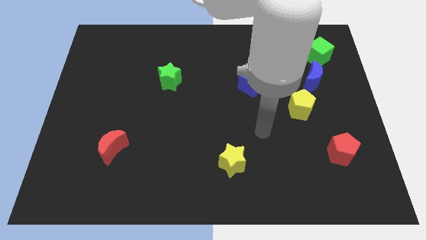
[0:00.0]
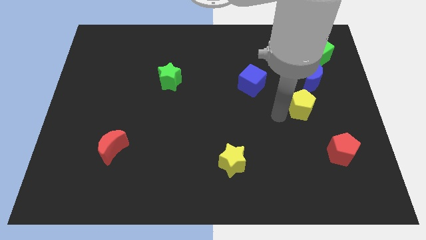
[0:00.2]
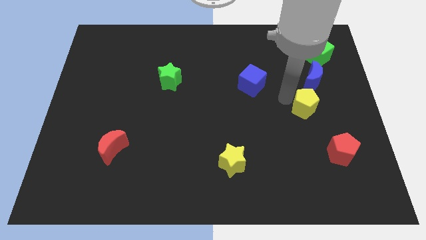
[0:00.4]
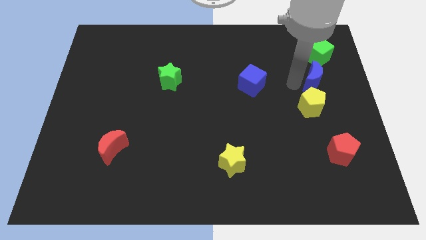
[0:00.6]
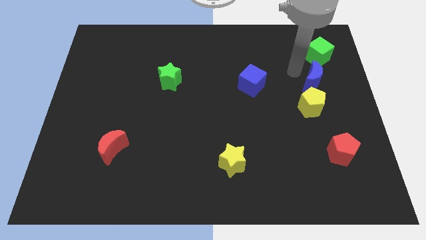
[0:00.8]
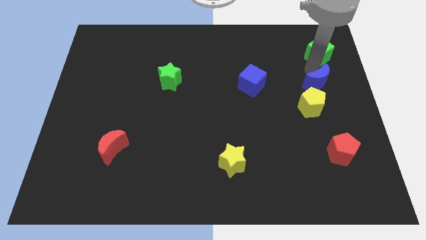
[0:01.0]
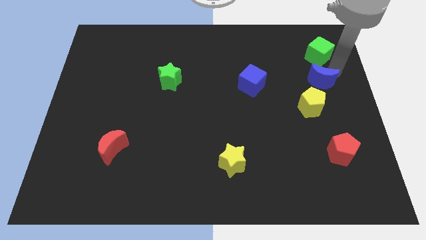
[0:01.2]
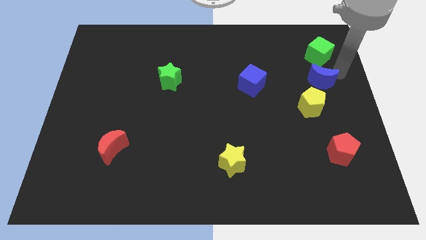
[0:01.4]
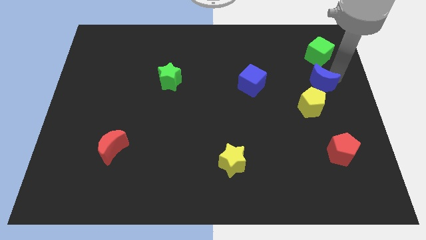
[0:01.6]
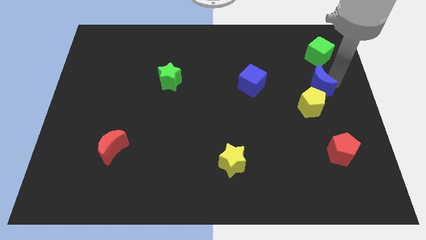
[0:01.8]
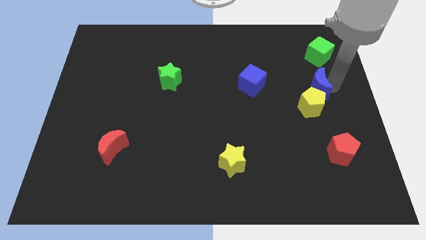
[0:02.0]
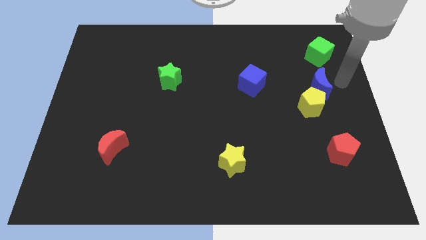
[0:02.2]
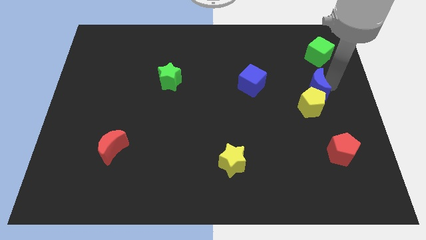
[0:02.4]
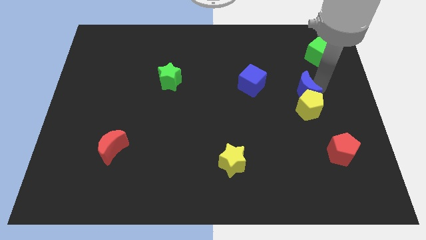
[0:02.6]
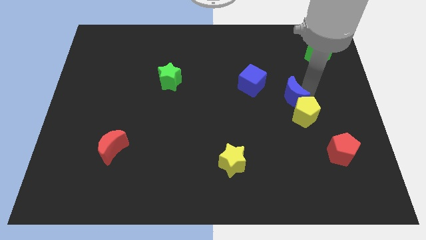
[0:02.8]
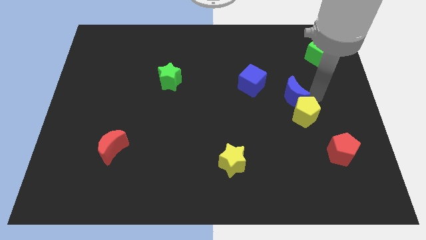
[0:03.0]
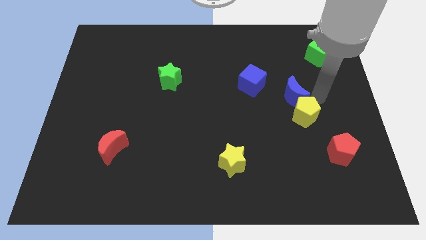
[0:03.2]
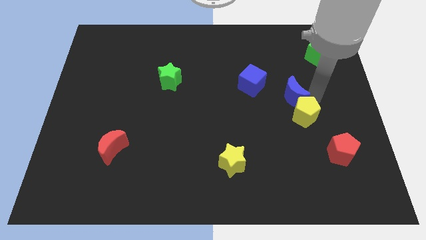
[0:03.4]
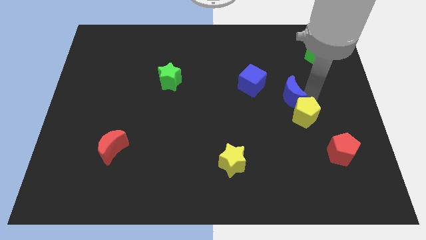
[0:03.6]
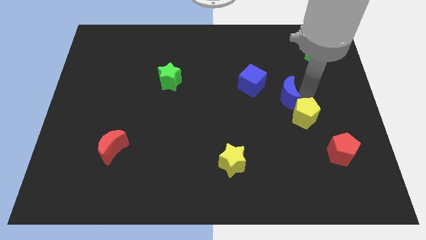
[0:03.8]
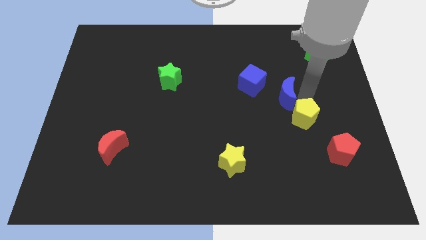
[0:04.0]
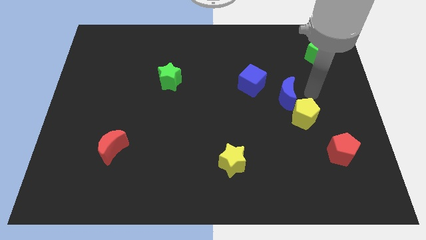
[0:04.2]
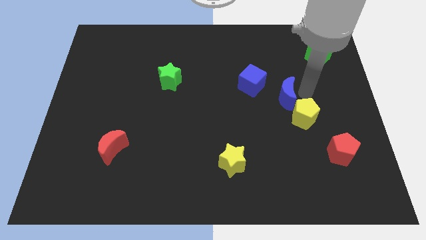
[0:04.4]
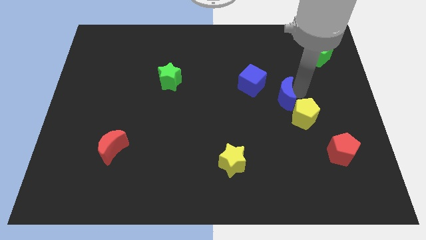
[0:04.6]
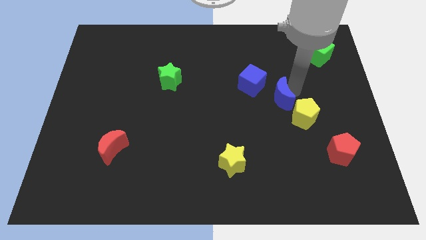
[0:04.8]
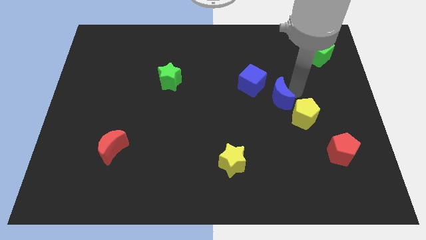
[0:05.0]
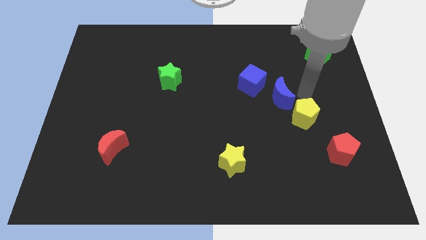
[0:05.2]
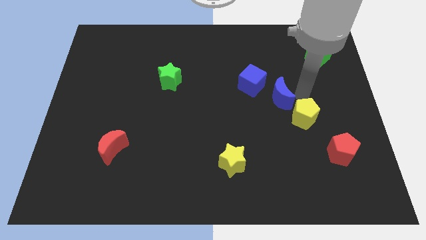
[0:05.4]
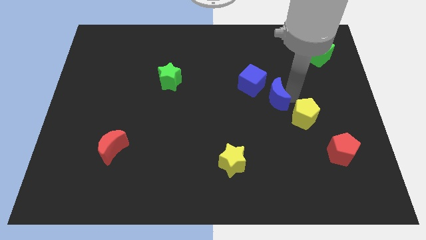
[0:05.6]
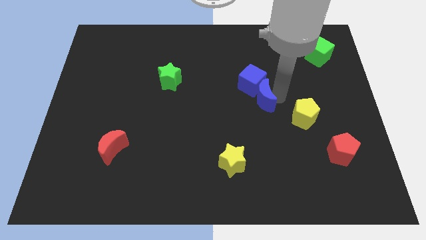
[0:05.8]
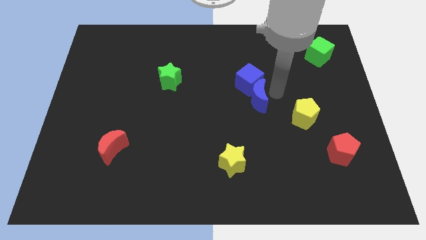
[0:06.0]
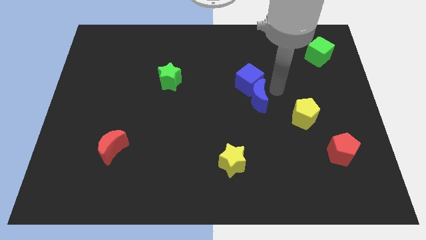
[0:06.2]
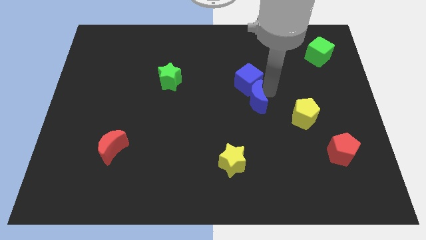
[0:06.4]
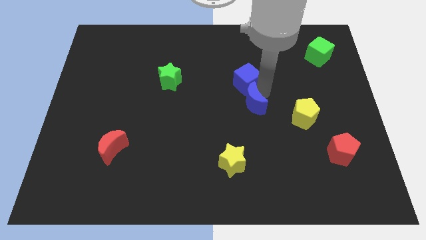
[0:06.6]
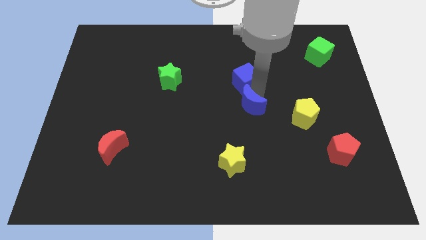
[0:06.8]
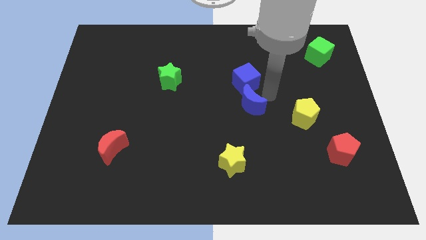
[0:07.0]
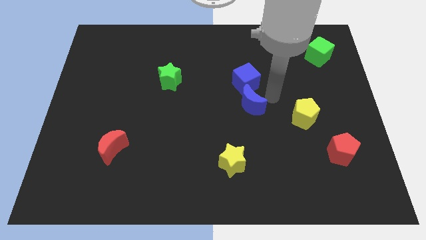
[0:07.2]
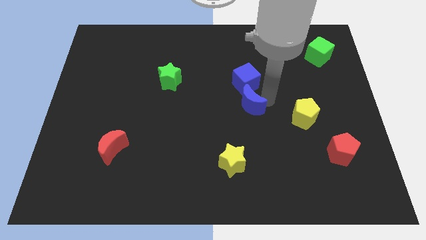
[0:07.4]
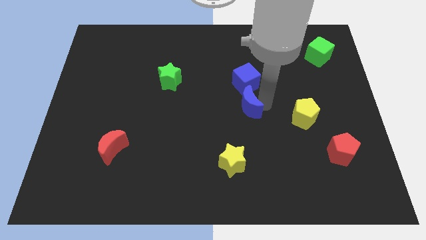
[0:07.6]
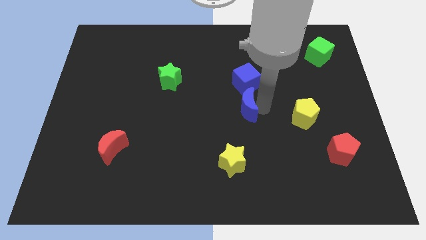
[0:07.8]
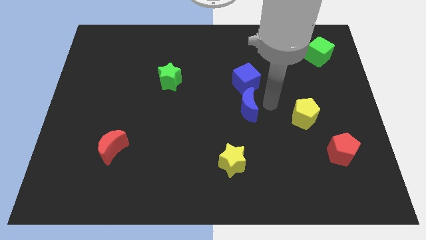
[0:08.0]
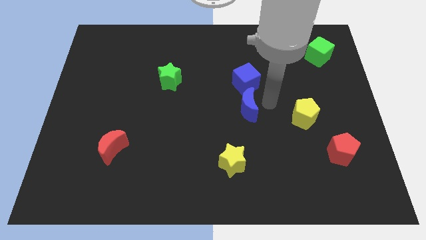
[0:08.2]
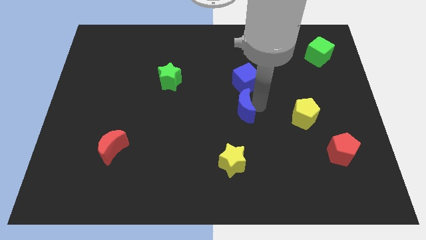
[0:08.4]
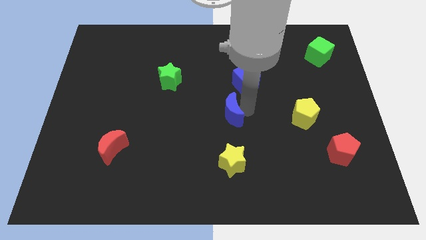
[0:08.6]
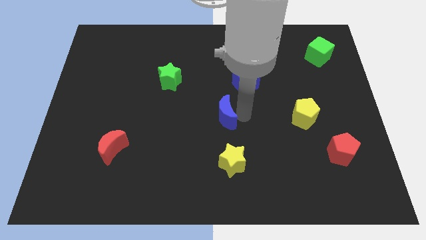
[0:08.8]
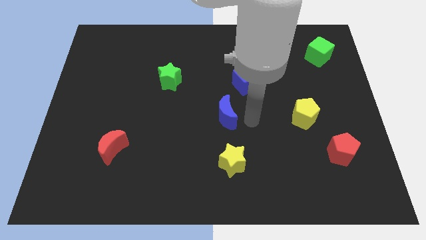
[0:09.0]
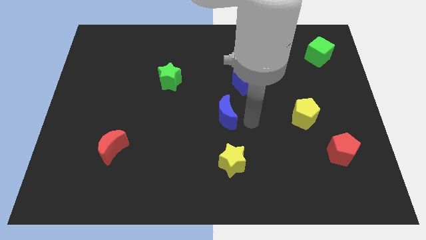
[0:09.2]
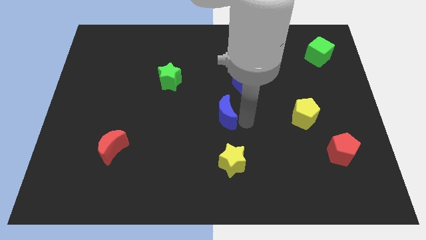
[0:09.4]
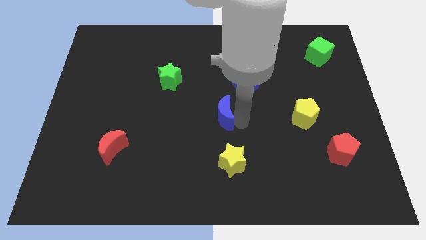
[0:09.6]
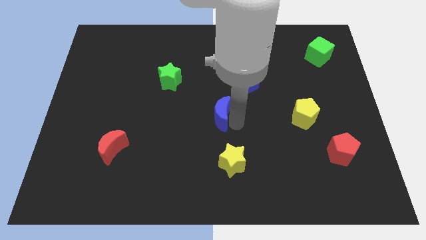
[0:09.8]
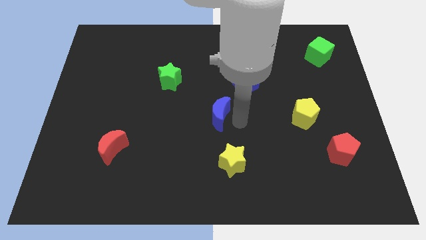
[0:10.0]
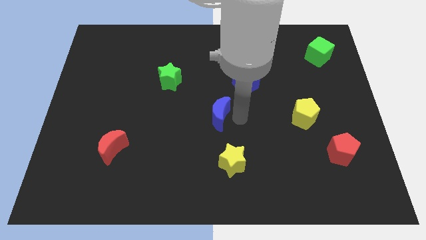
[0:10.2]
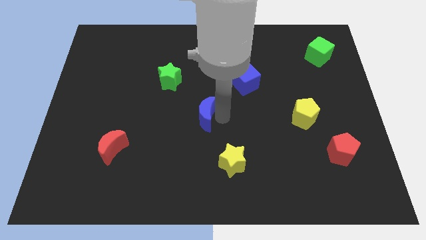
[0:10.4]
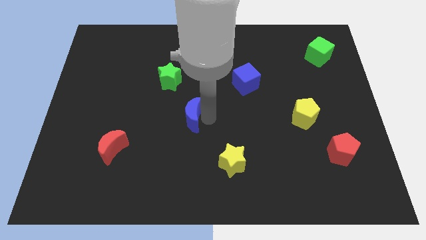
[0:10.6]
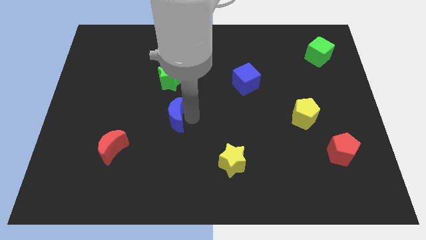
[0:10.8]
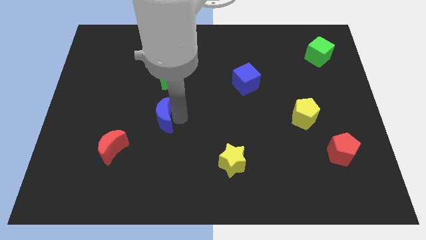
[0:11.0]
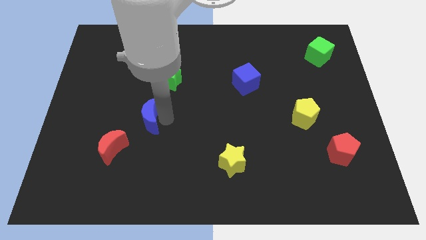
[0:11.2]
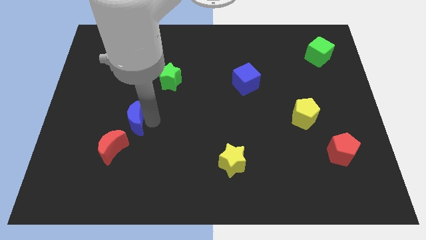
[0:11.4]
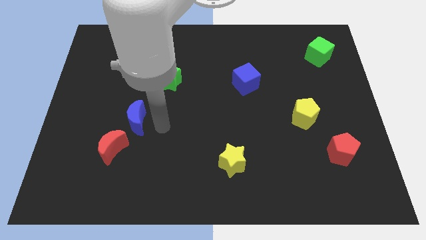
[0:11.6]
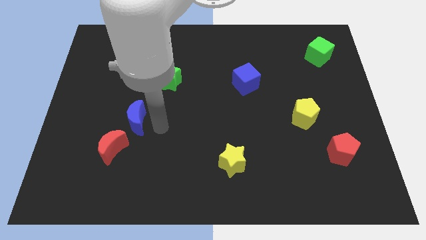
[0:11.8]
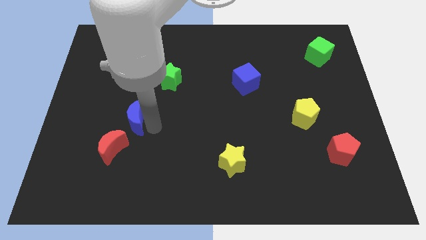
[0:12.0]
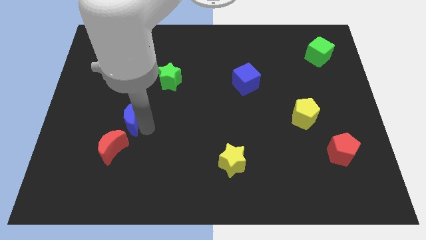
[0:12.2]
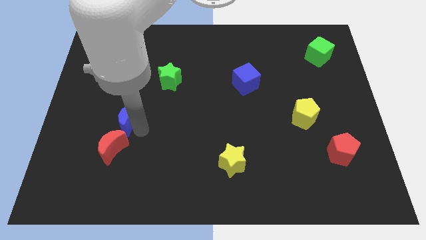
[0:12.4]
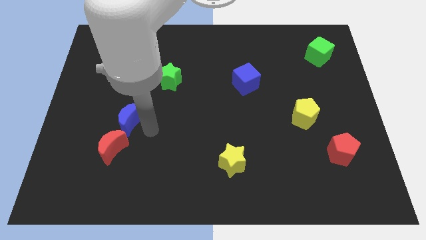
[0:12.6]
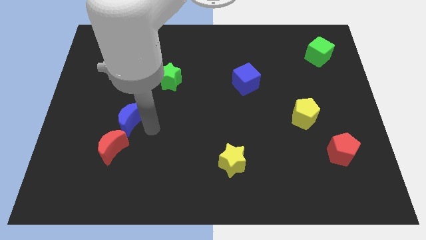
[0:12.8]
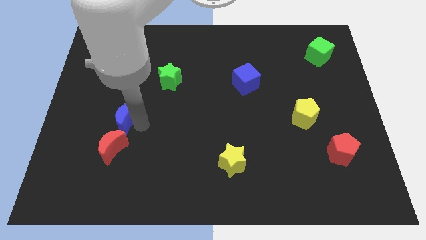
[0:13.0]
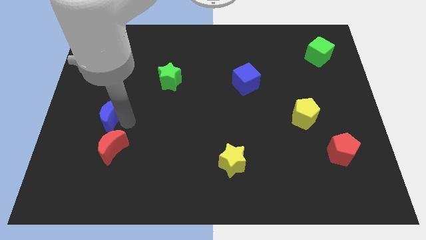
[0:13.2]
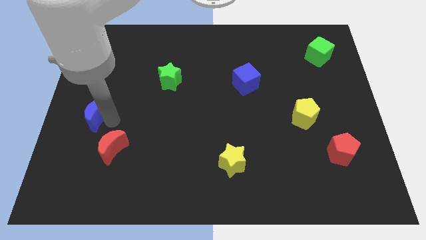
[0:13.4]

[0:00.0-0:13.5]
push the blue moon to the left side of the board
